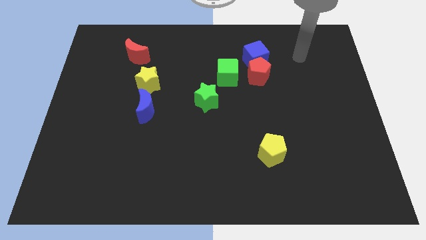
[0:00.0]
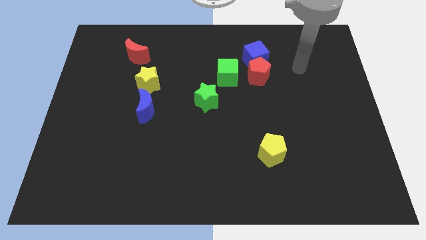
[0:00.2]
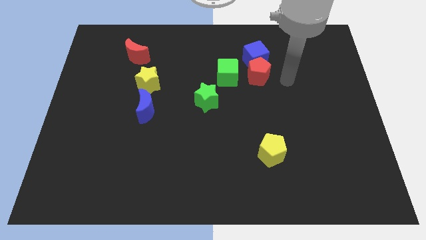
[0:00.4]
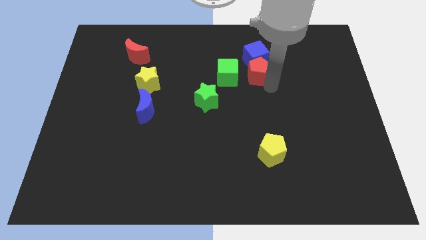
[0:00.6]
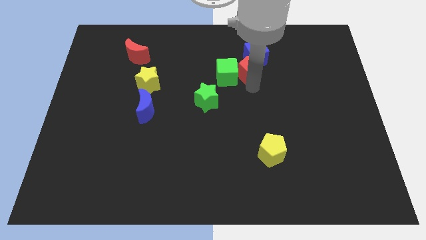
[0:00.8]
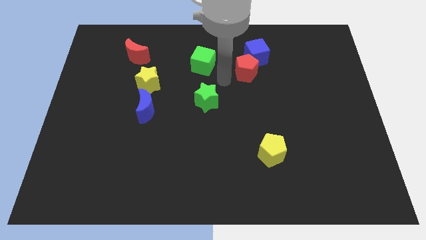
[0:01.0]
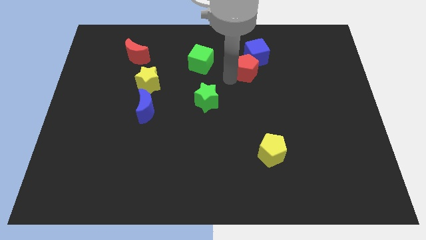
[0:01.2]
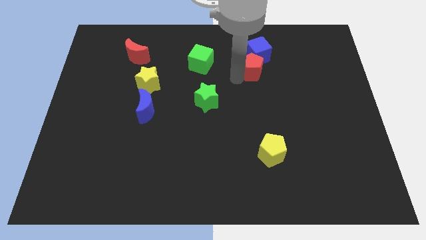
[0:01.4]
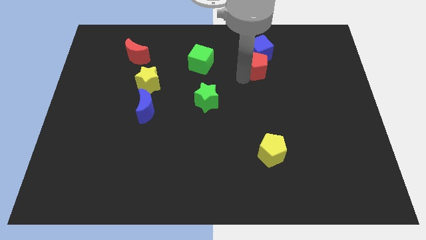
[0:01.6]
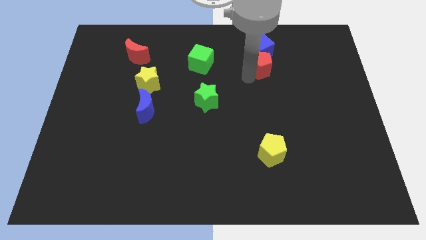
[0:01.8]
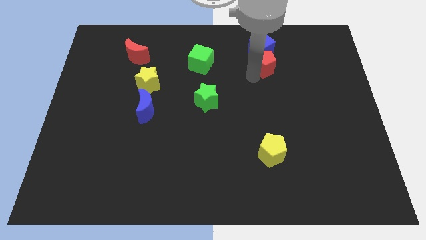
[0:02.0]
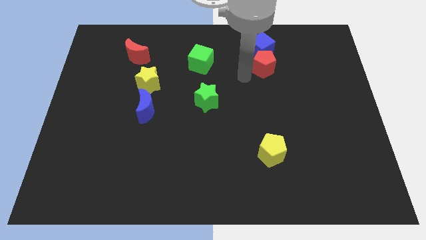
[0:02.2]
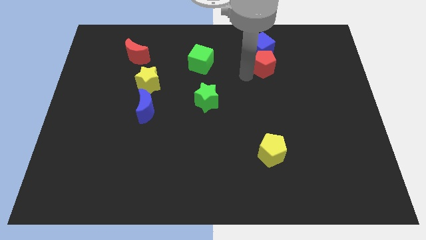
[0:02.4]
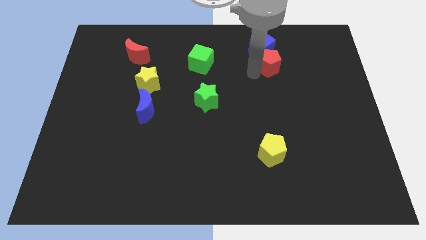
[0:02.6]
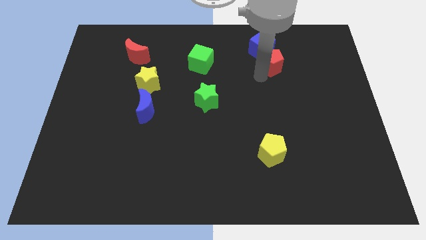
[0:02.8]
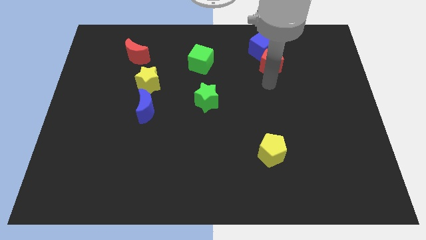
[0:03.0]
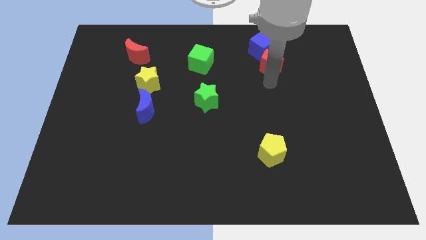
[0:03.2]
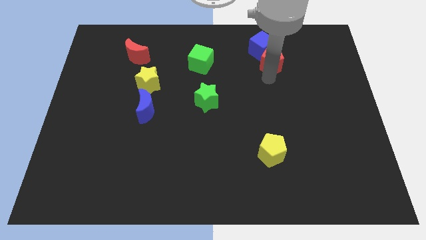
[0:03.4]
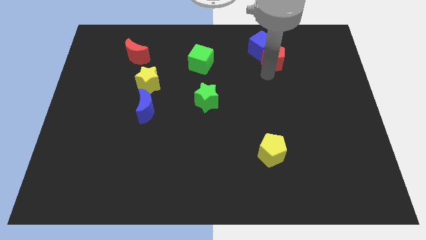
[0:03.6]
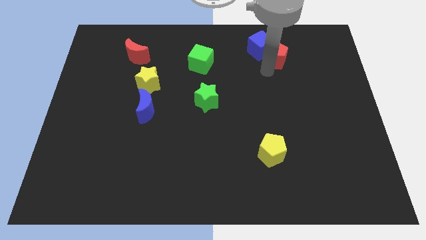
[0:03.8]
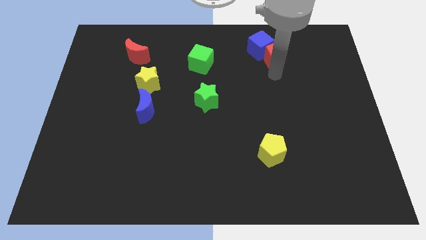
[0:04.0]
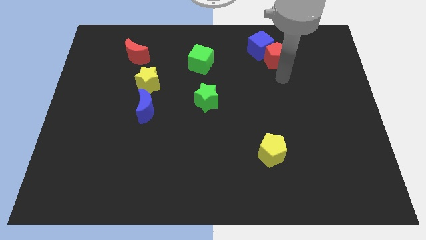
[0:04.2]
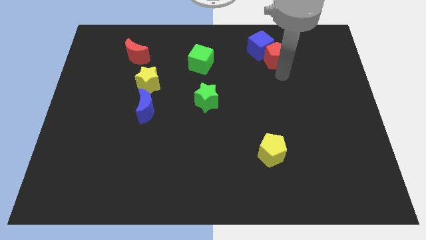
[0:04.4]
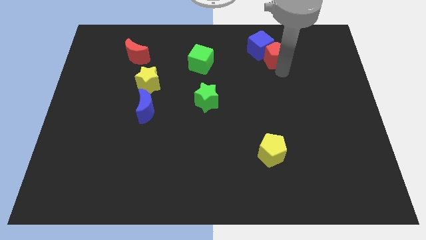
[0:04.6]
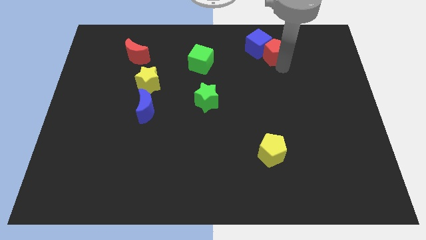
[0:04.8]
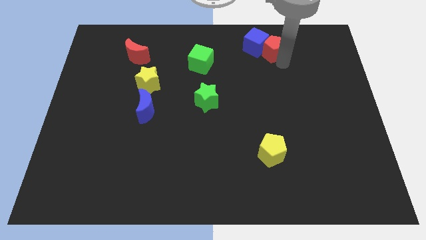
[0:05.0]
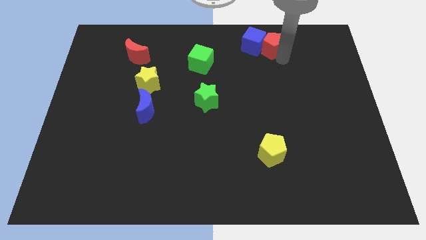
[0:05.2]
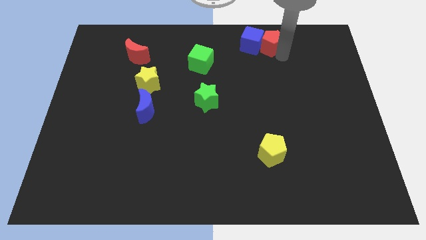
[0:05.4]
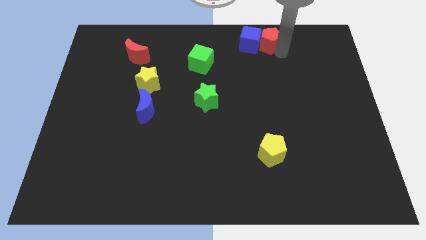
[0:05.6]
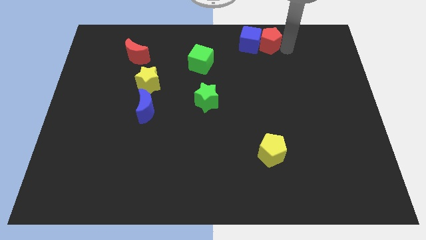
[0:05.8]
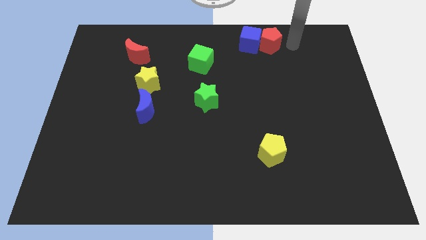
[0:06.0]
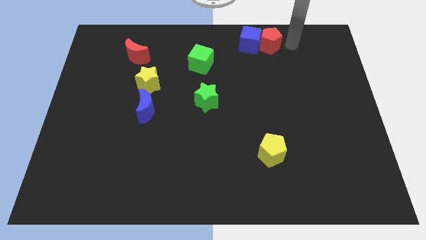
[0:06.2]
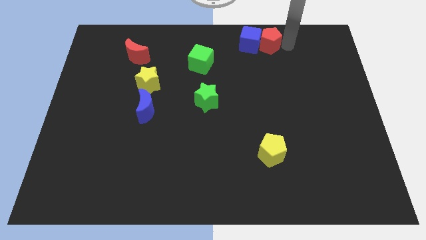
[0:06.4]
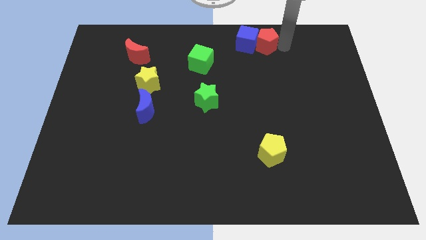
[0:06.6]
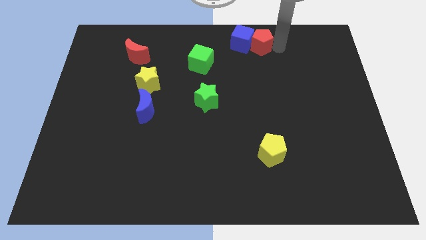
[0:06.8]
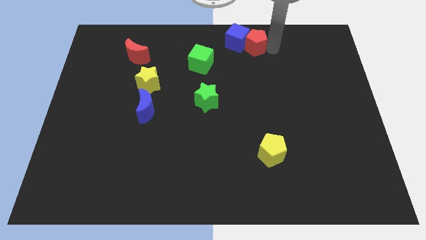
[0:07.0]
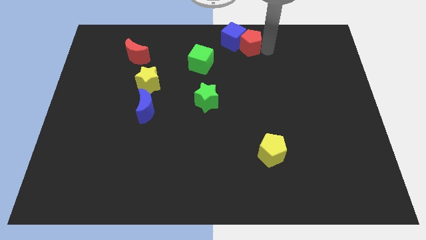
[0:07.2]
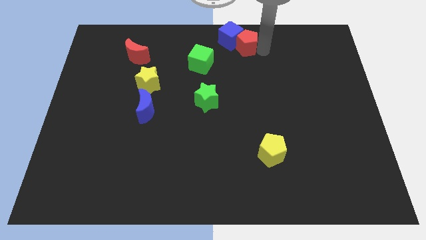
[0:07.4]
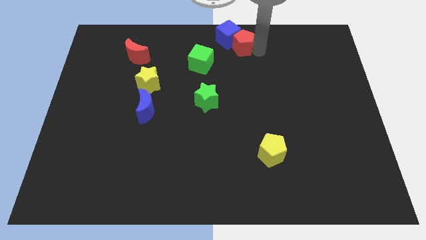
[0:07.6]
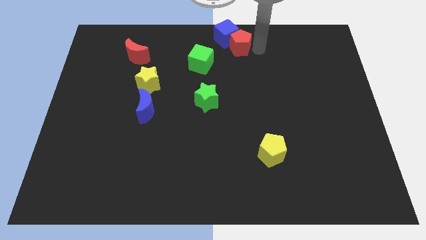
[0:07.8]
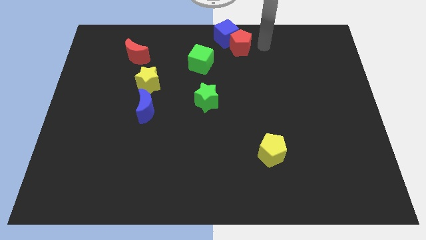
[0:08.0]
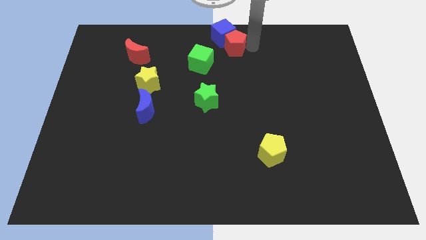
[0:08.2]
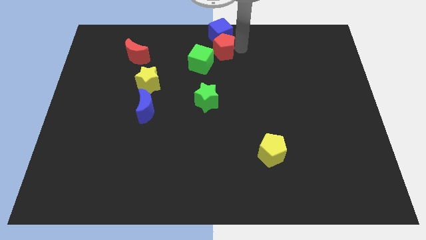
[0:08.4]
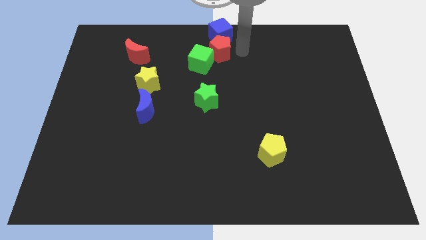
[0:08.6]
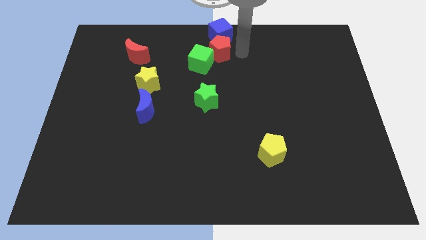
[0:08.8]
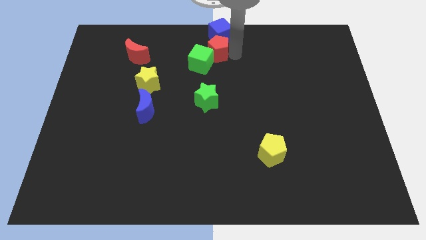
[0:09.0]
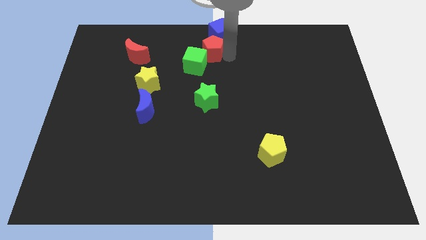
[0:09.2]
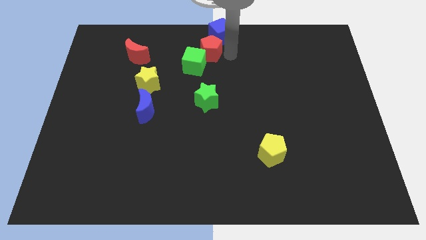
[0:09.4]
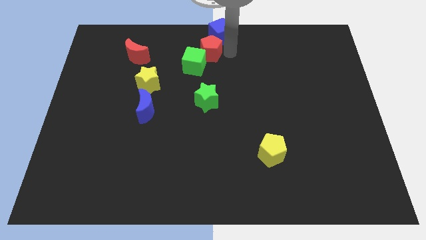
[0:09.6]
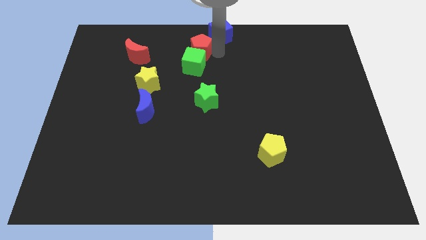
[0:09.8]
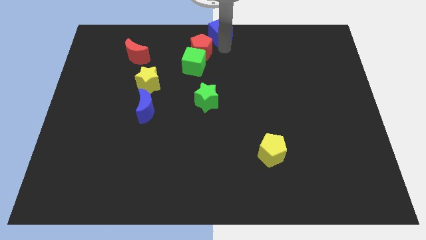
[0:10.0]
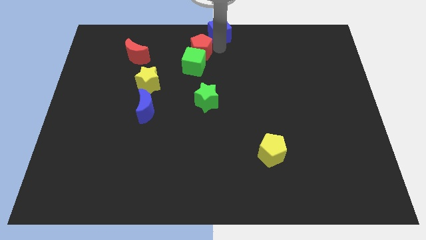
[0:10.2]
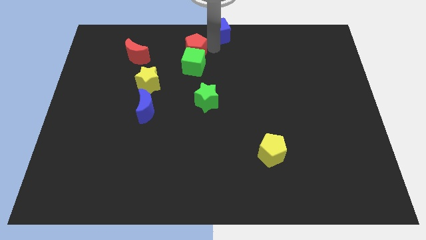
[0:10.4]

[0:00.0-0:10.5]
put the red pentagon to the right of the red moon

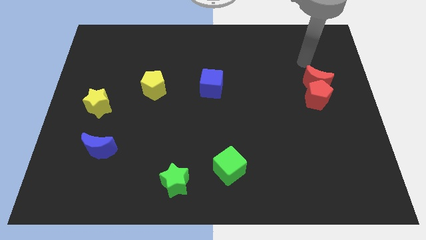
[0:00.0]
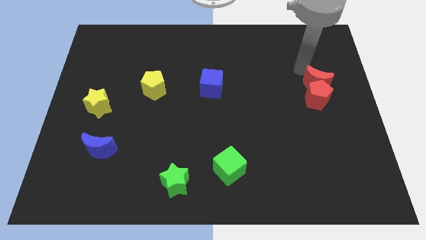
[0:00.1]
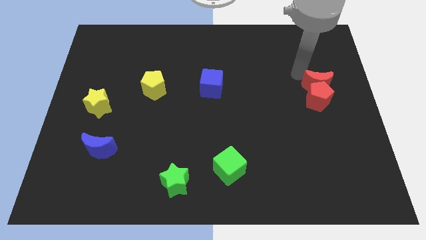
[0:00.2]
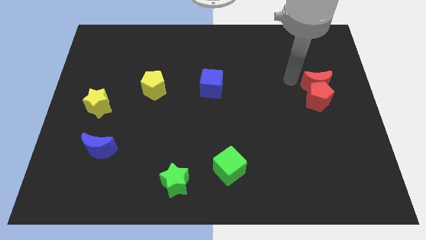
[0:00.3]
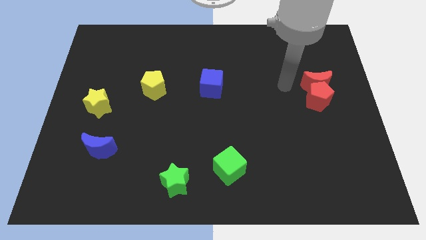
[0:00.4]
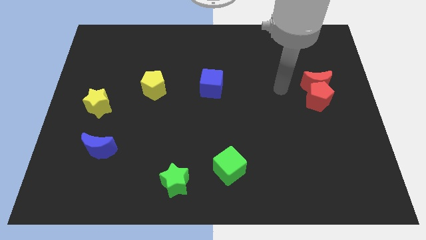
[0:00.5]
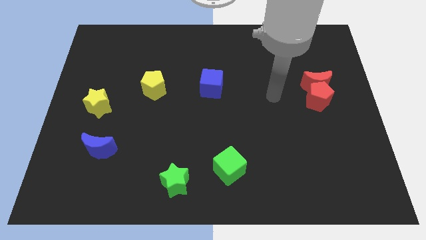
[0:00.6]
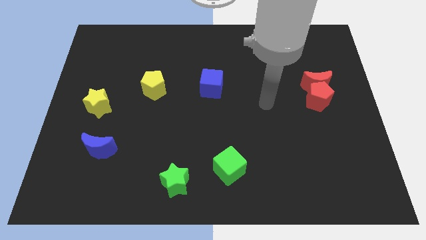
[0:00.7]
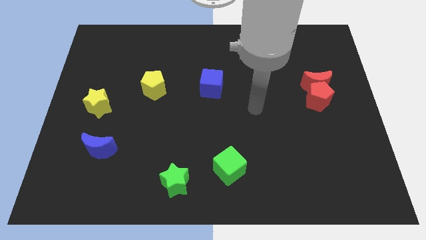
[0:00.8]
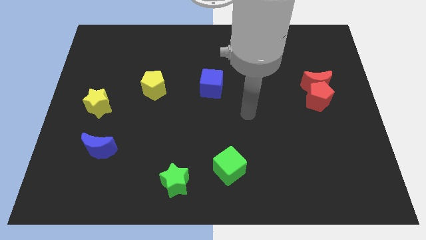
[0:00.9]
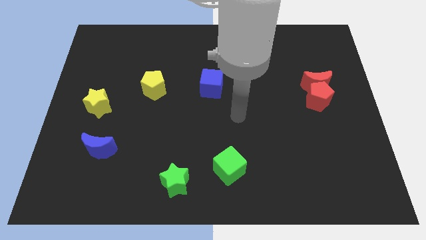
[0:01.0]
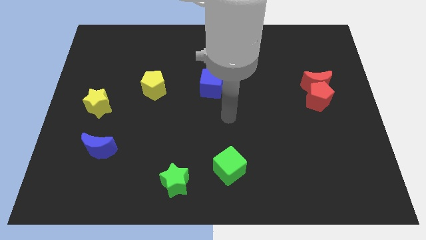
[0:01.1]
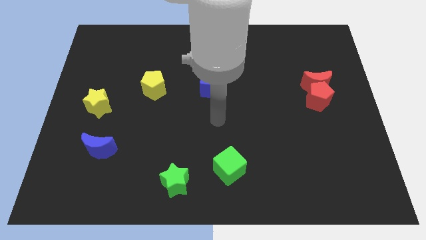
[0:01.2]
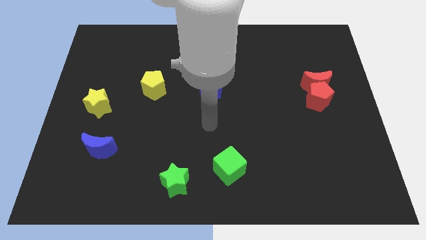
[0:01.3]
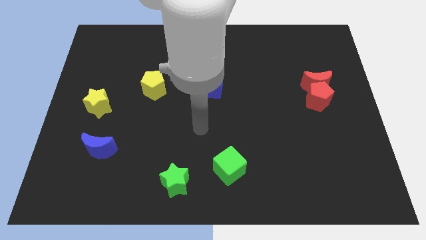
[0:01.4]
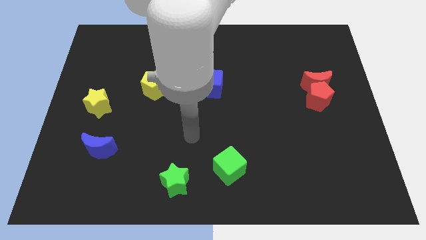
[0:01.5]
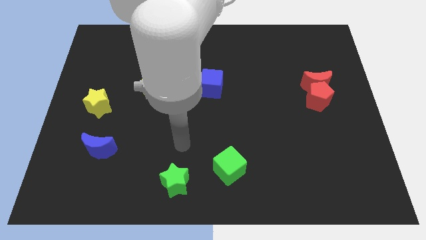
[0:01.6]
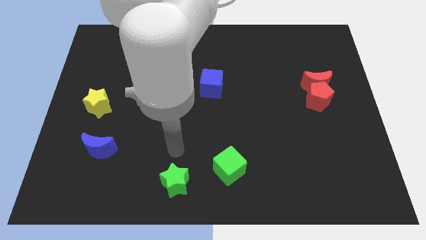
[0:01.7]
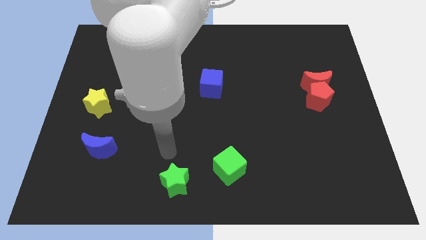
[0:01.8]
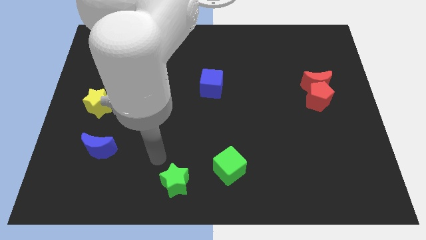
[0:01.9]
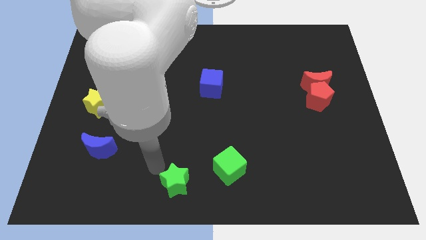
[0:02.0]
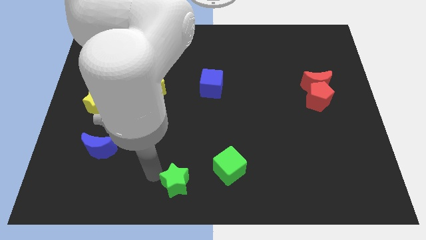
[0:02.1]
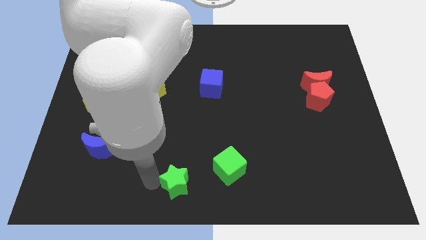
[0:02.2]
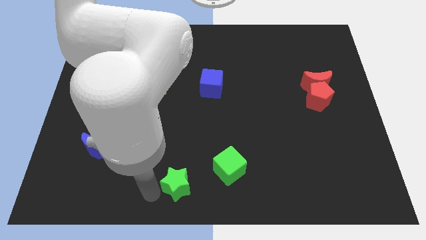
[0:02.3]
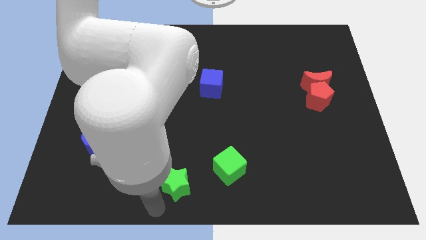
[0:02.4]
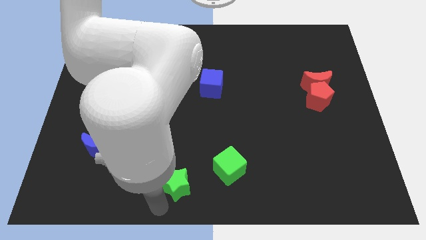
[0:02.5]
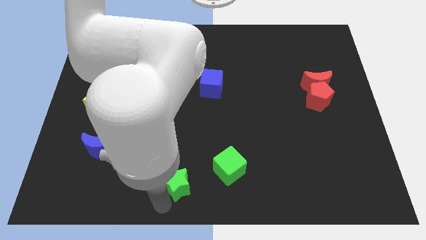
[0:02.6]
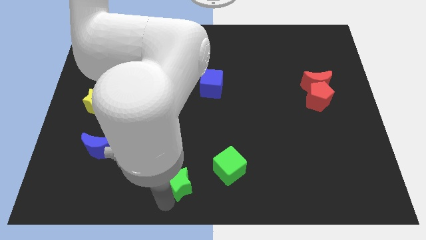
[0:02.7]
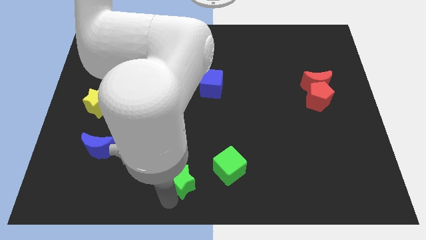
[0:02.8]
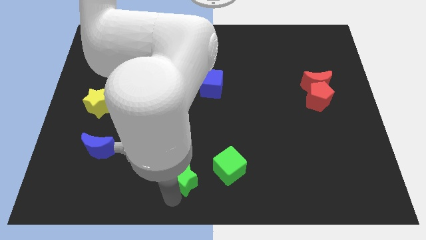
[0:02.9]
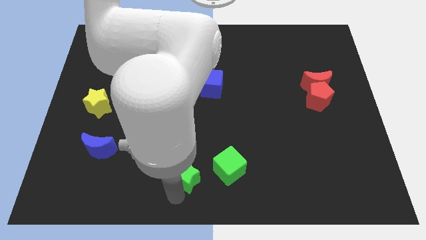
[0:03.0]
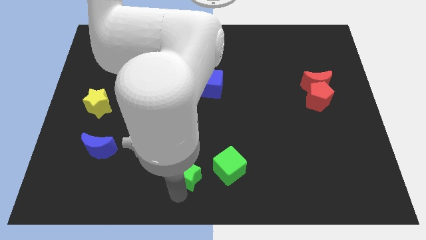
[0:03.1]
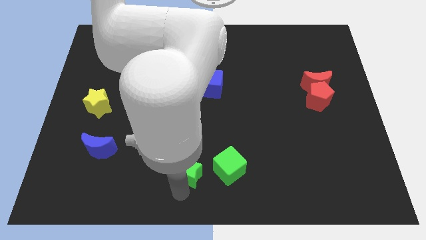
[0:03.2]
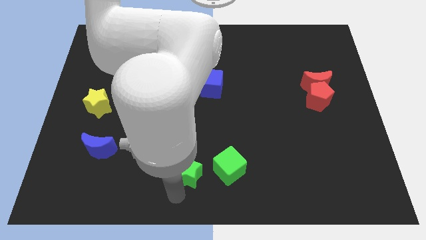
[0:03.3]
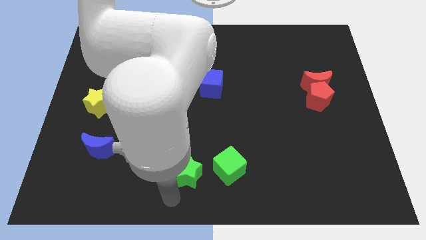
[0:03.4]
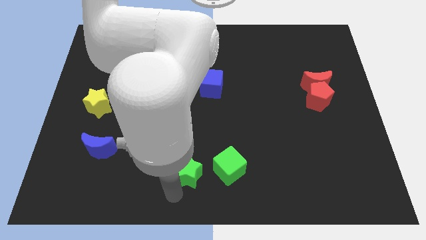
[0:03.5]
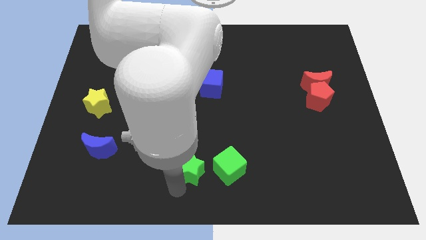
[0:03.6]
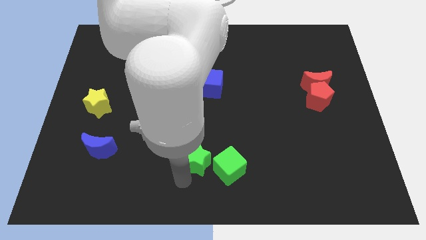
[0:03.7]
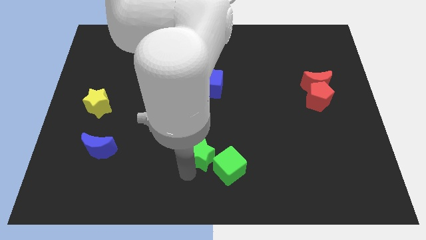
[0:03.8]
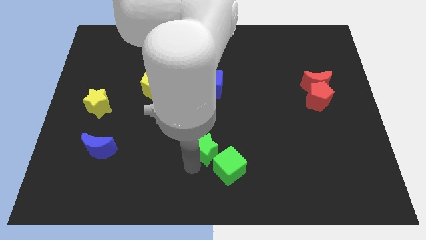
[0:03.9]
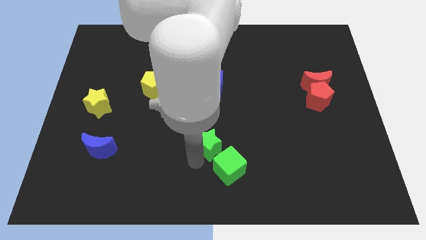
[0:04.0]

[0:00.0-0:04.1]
put the green star to the top of the green cube
